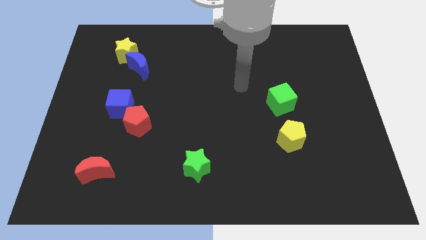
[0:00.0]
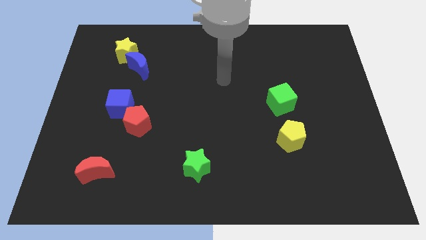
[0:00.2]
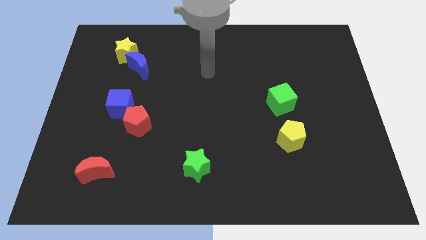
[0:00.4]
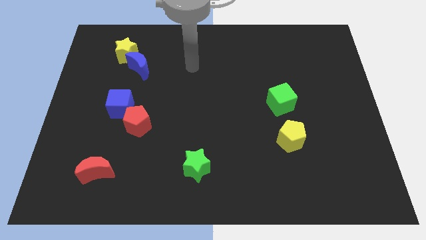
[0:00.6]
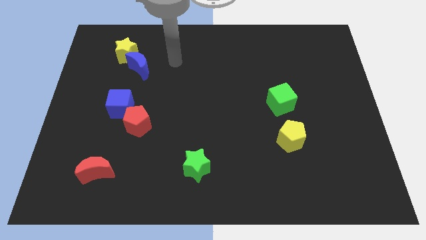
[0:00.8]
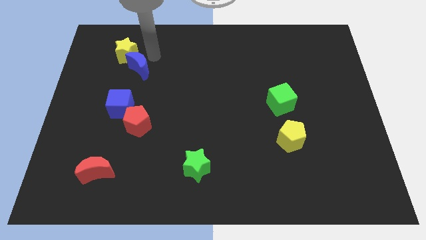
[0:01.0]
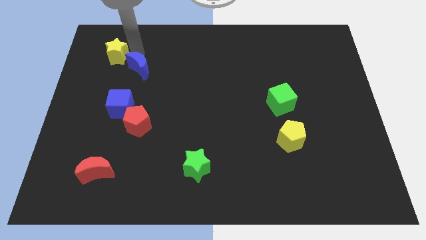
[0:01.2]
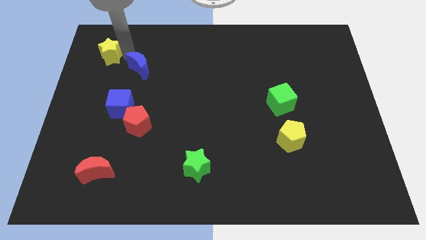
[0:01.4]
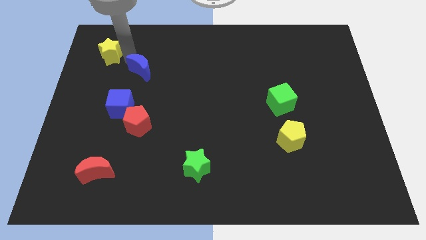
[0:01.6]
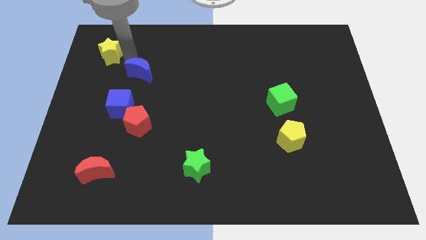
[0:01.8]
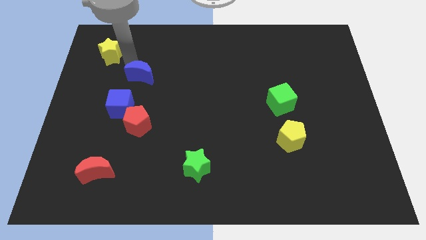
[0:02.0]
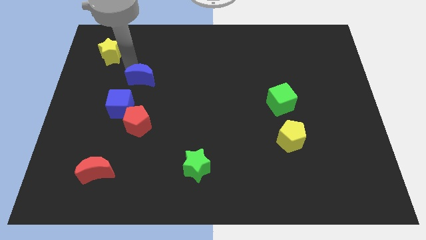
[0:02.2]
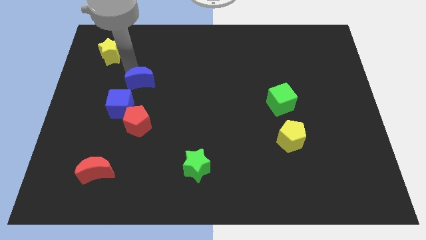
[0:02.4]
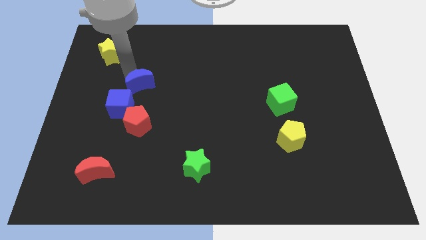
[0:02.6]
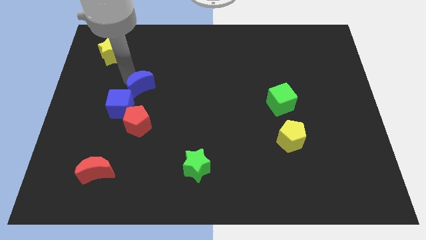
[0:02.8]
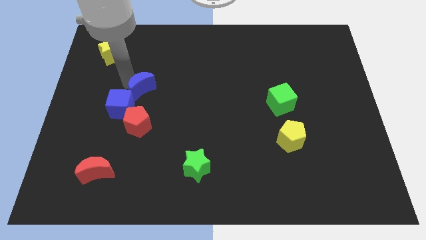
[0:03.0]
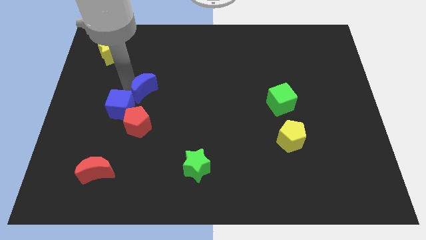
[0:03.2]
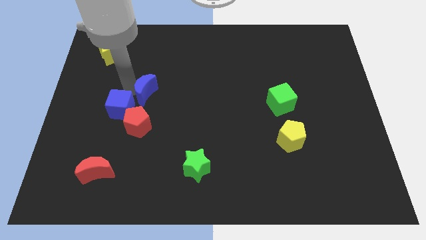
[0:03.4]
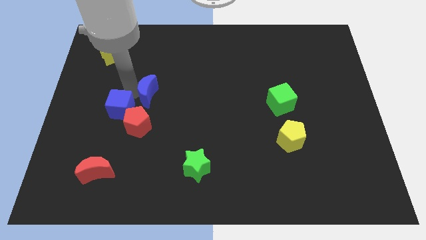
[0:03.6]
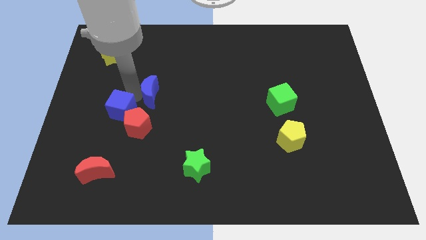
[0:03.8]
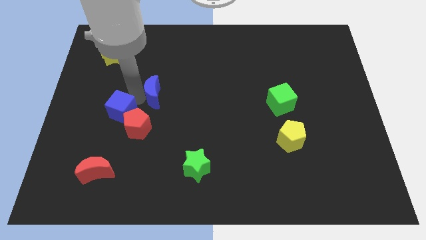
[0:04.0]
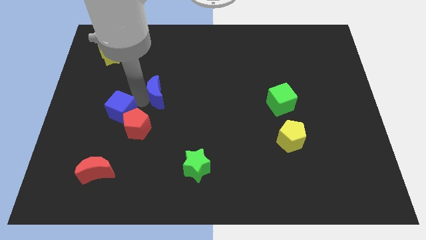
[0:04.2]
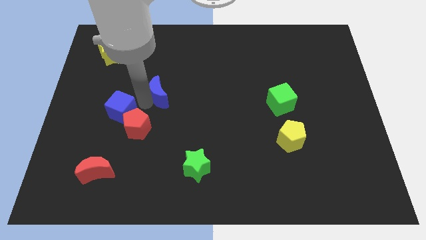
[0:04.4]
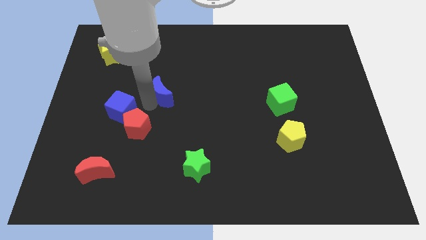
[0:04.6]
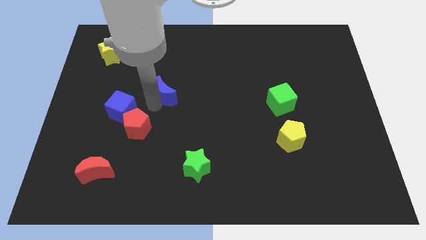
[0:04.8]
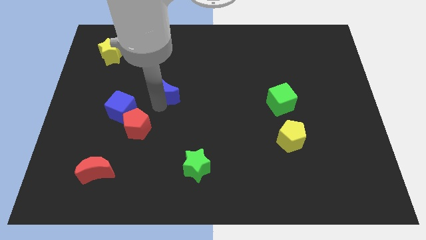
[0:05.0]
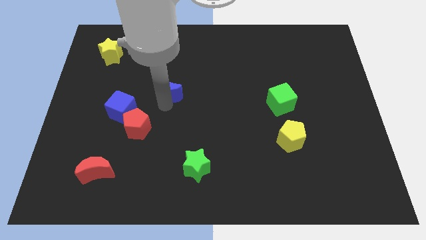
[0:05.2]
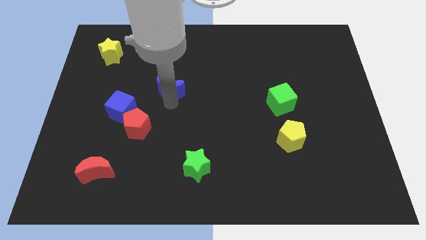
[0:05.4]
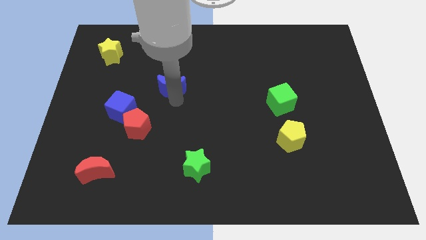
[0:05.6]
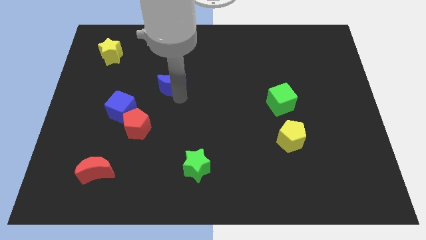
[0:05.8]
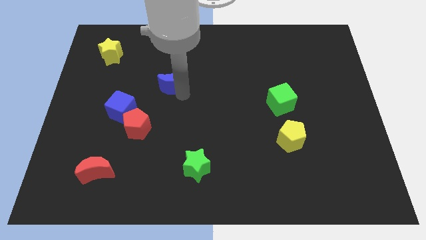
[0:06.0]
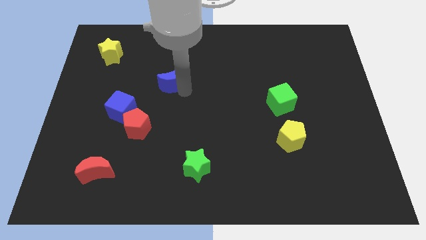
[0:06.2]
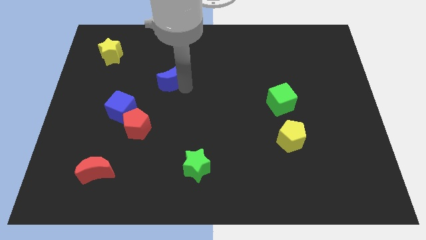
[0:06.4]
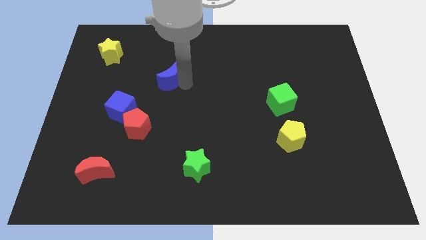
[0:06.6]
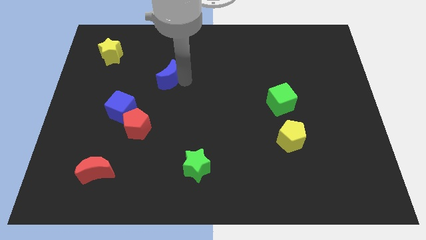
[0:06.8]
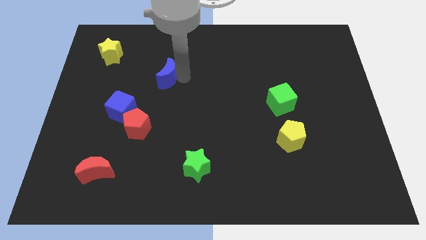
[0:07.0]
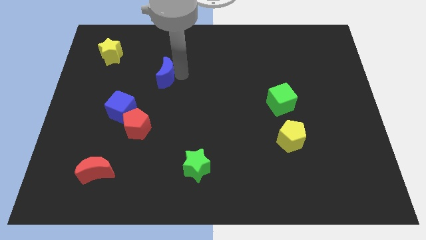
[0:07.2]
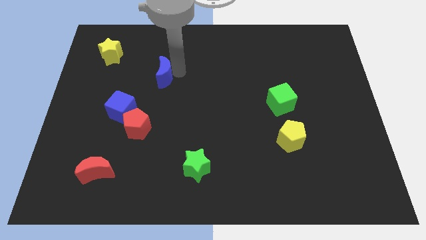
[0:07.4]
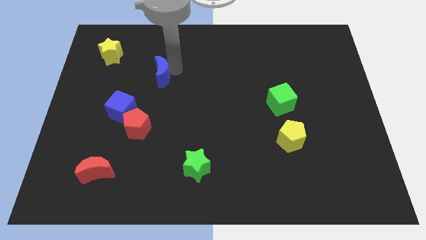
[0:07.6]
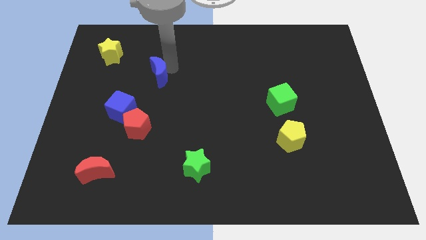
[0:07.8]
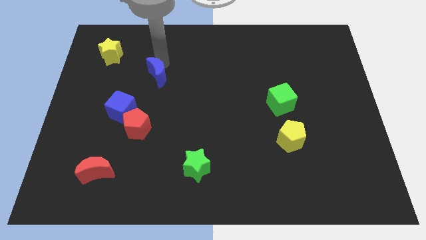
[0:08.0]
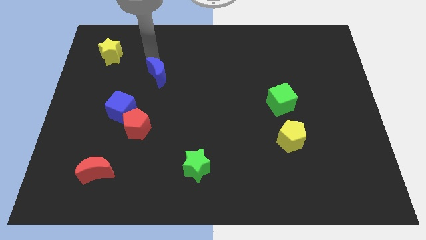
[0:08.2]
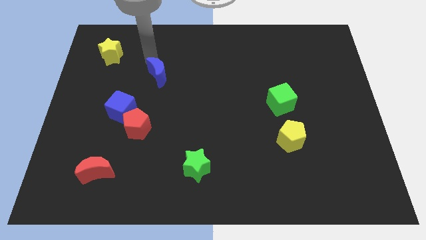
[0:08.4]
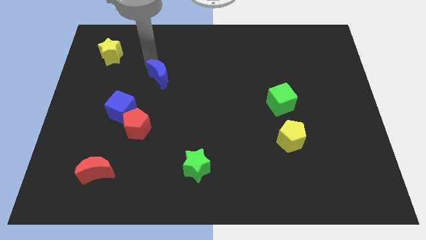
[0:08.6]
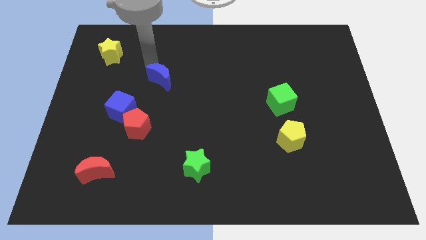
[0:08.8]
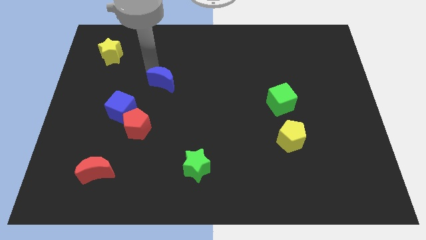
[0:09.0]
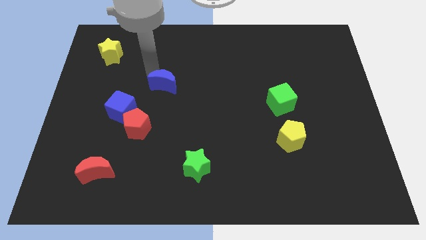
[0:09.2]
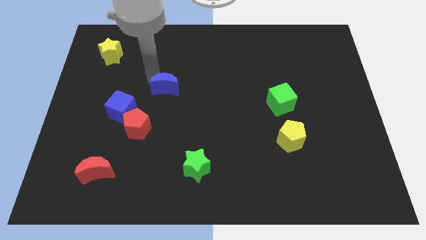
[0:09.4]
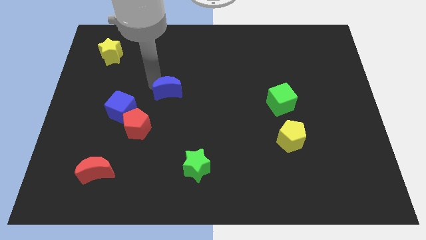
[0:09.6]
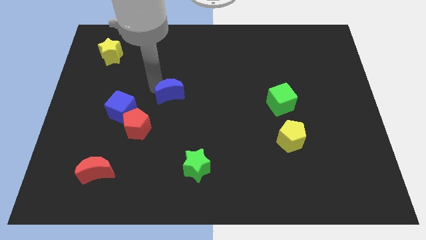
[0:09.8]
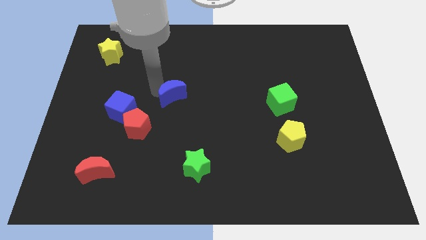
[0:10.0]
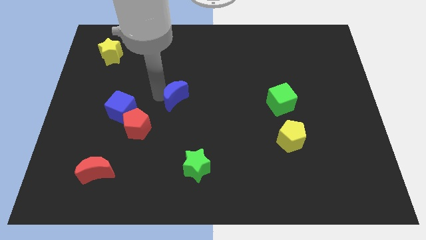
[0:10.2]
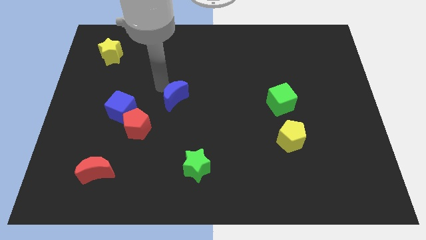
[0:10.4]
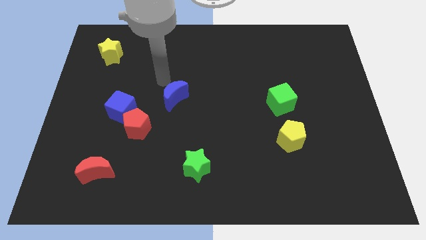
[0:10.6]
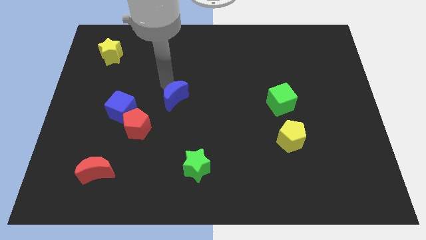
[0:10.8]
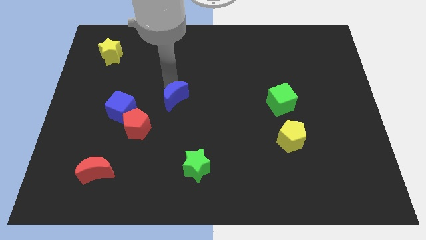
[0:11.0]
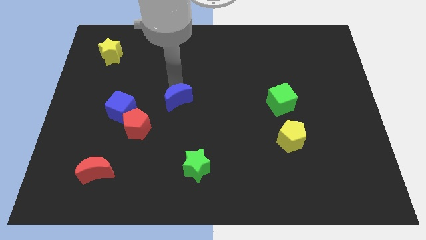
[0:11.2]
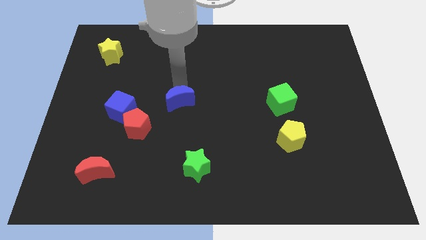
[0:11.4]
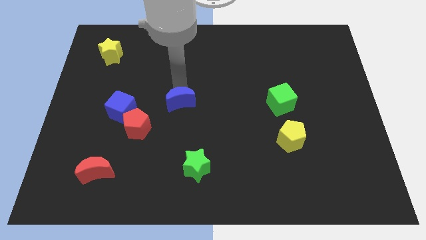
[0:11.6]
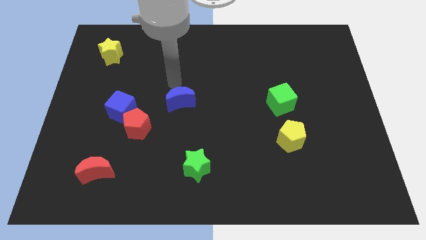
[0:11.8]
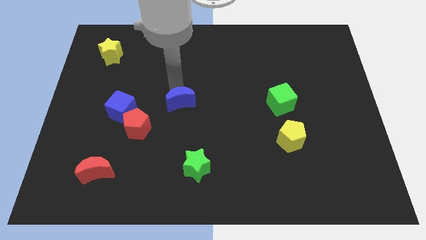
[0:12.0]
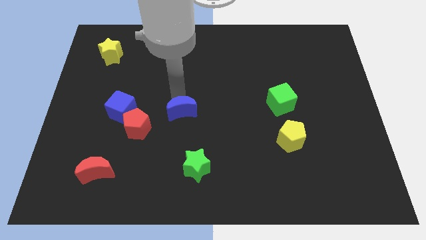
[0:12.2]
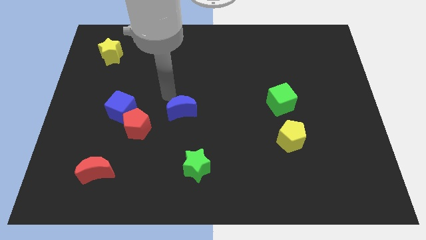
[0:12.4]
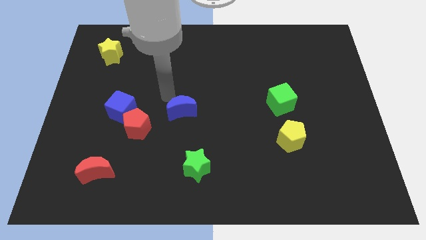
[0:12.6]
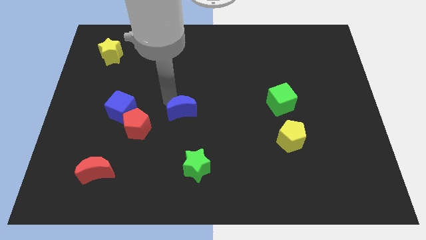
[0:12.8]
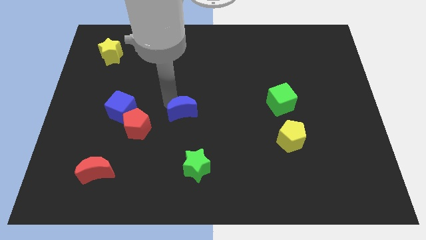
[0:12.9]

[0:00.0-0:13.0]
put the blue moon to the top side of the green star

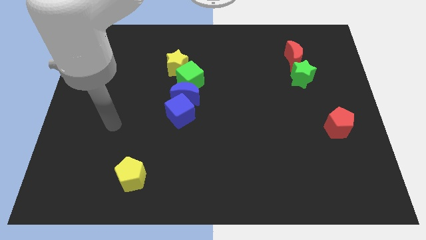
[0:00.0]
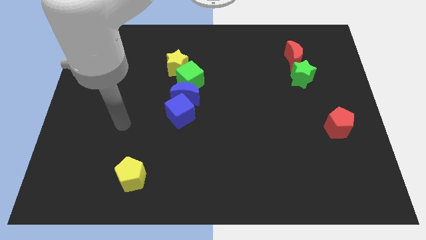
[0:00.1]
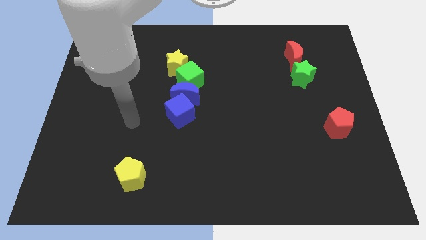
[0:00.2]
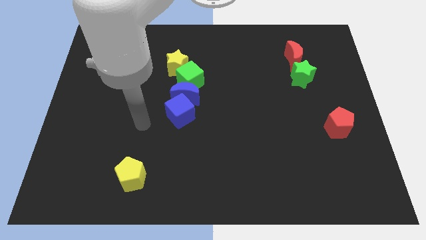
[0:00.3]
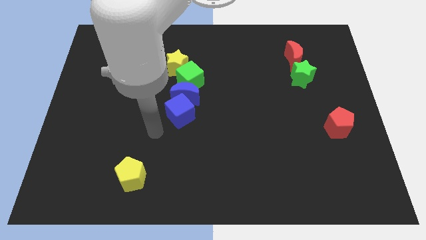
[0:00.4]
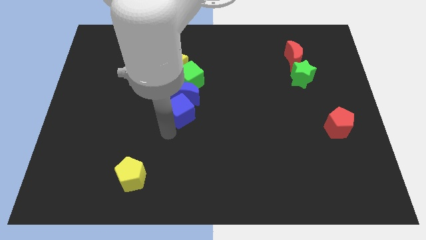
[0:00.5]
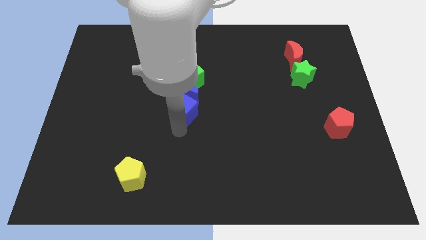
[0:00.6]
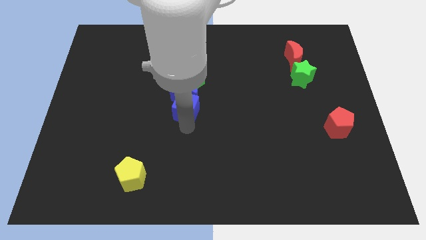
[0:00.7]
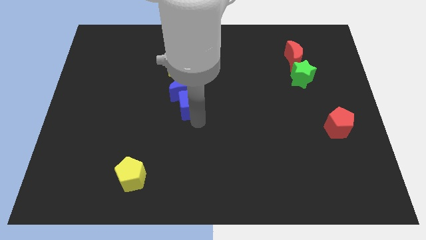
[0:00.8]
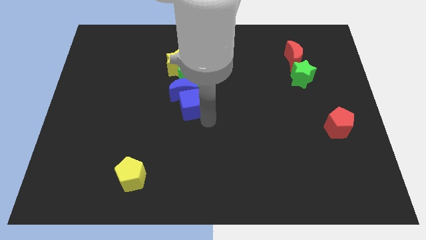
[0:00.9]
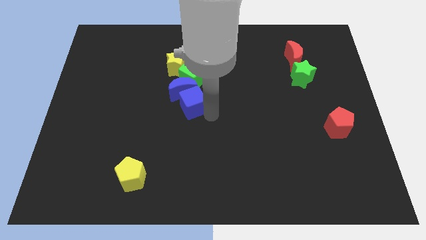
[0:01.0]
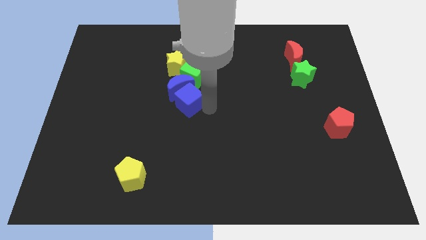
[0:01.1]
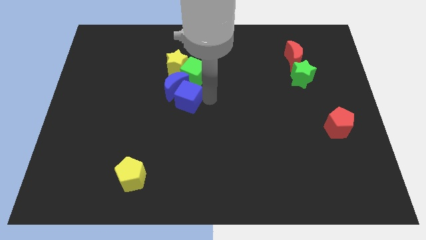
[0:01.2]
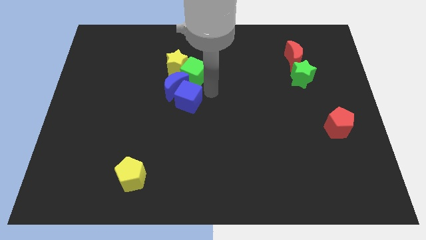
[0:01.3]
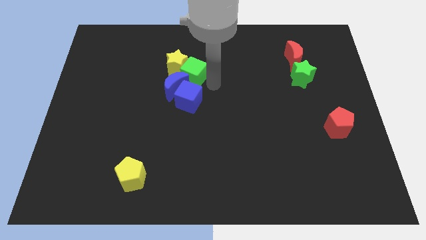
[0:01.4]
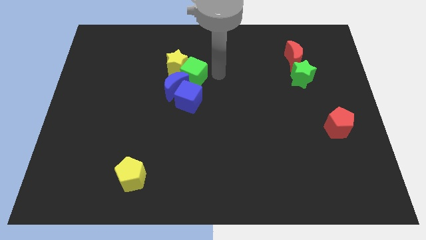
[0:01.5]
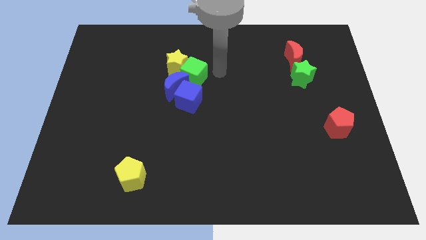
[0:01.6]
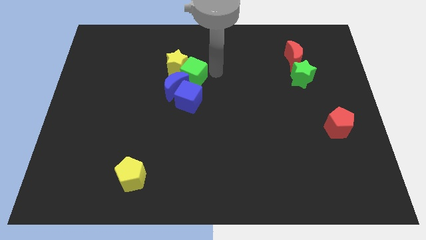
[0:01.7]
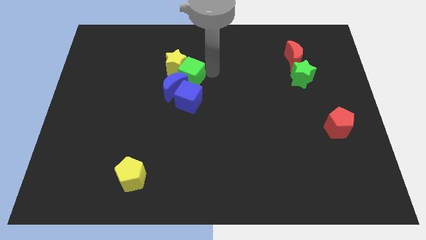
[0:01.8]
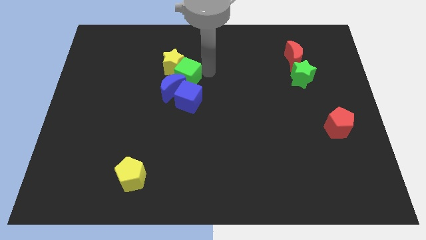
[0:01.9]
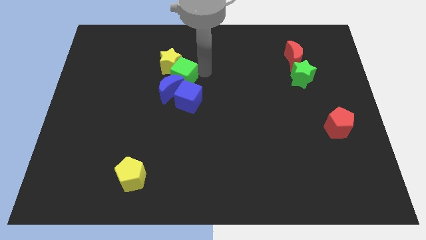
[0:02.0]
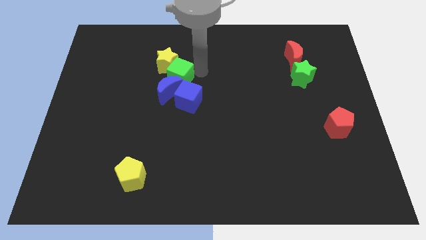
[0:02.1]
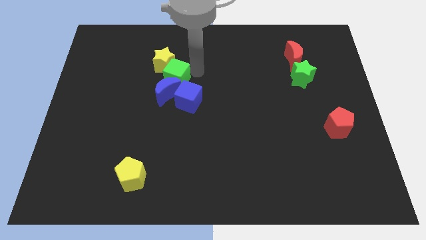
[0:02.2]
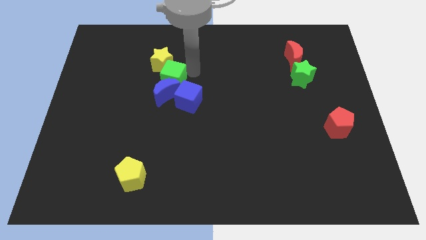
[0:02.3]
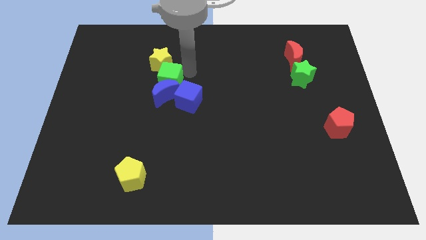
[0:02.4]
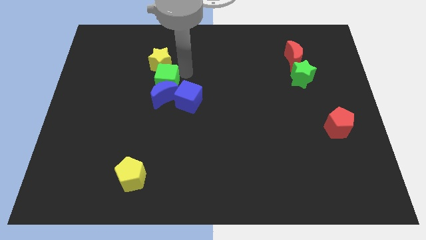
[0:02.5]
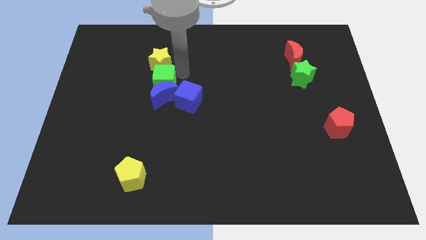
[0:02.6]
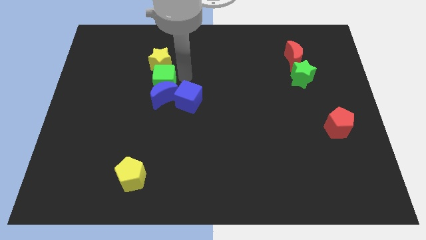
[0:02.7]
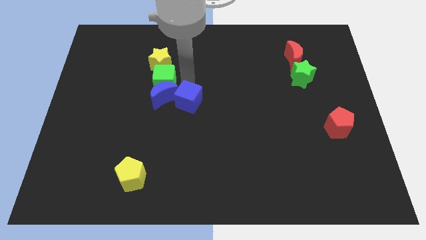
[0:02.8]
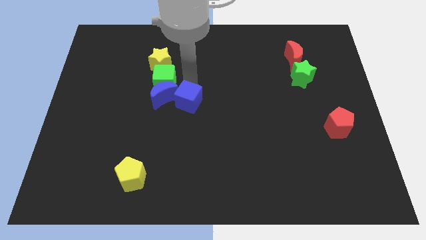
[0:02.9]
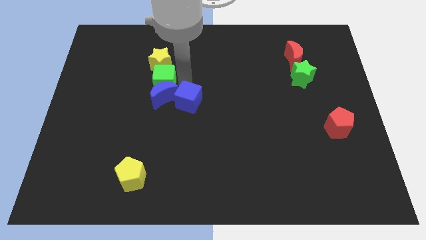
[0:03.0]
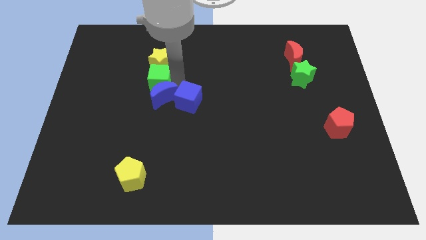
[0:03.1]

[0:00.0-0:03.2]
slide the green cube to the bottom left of the yellow star
